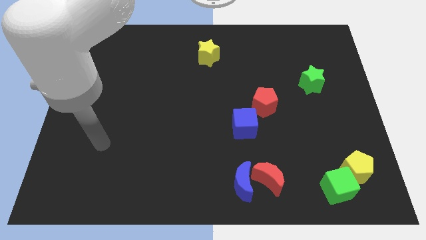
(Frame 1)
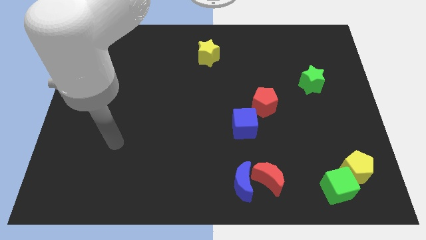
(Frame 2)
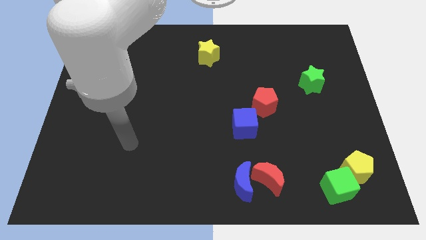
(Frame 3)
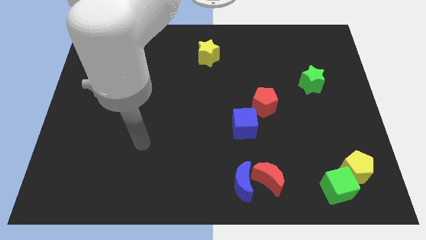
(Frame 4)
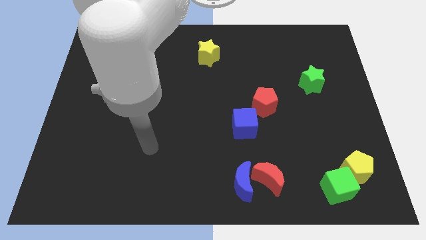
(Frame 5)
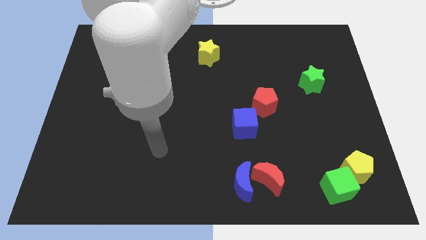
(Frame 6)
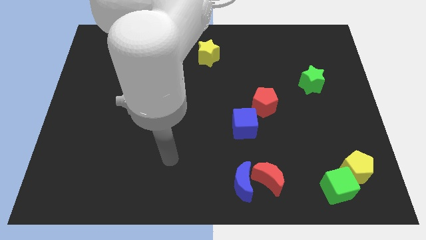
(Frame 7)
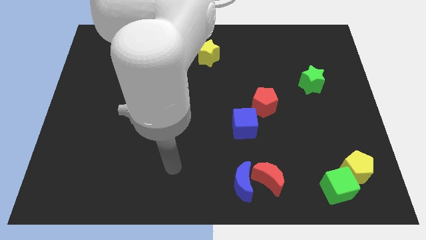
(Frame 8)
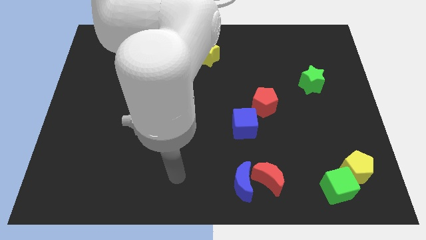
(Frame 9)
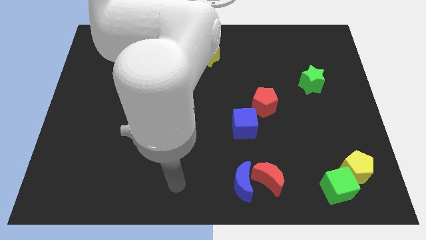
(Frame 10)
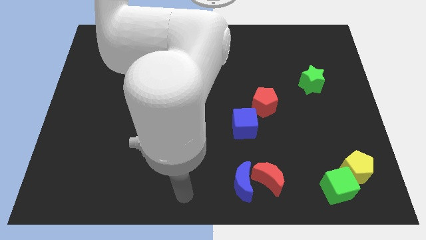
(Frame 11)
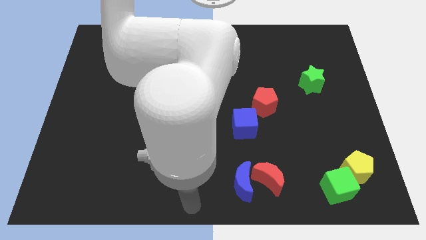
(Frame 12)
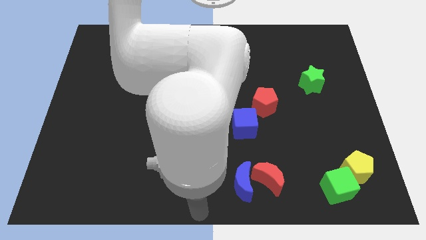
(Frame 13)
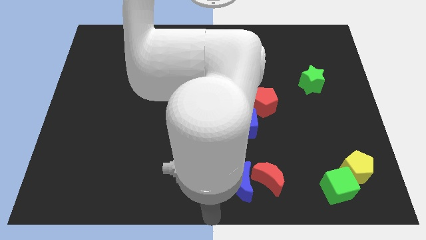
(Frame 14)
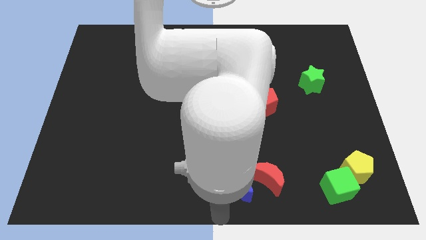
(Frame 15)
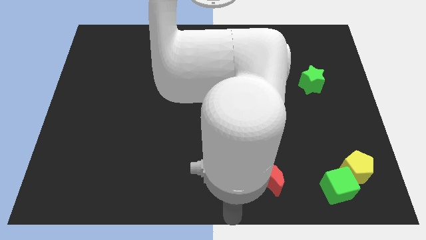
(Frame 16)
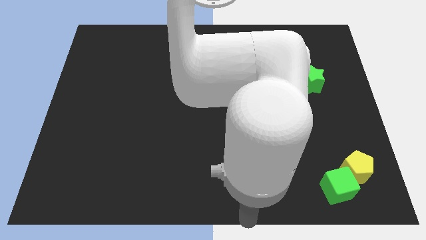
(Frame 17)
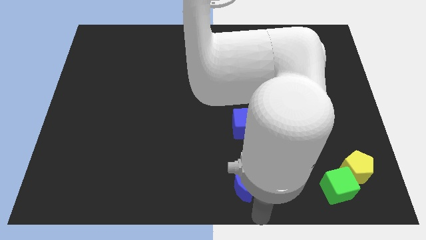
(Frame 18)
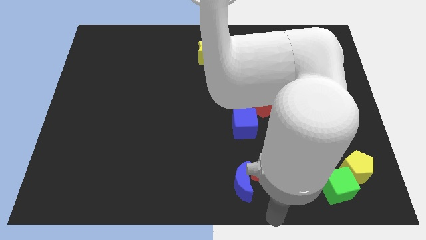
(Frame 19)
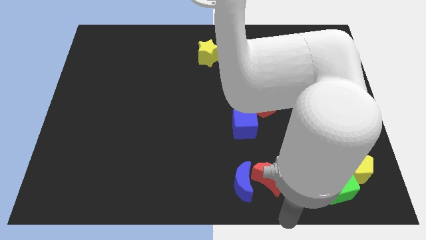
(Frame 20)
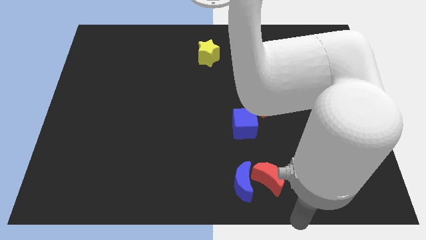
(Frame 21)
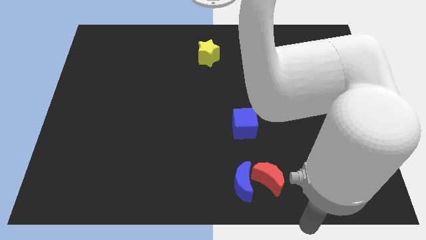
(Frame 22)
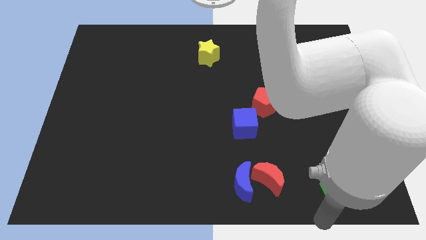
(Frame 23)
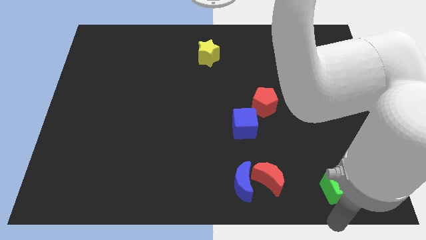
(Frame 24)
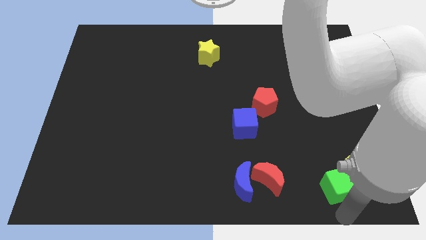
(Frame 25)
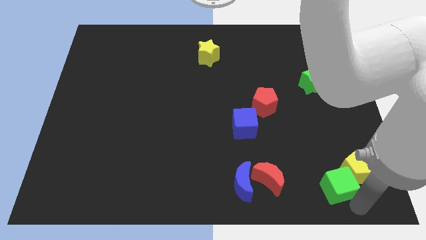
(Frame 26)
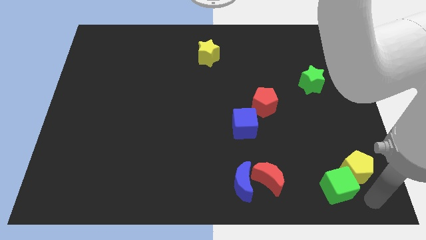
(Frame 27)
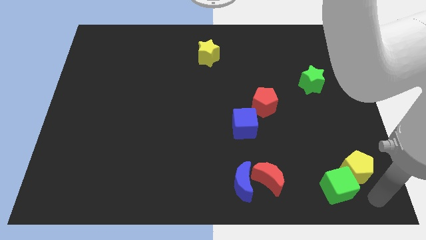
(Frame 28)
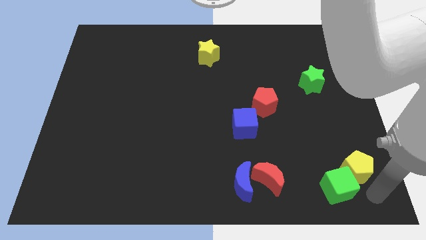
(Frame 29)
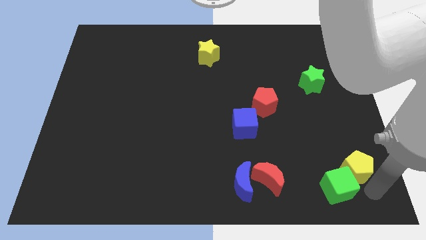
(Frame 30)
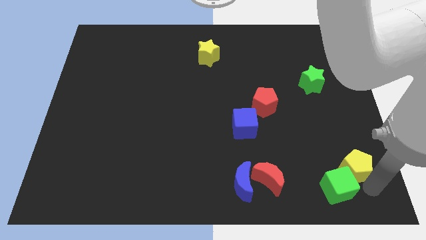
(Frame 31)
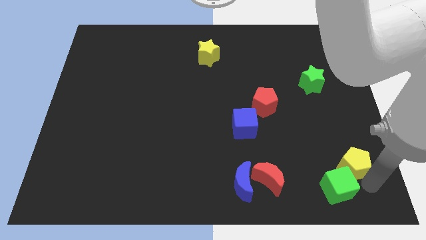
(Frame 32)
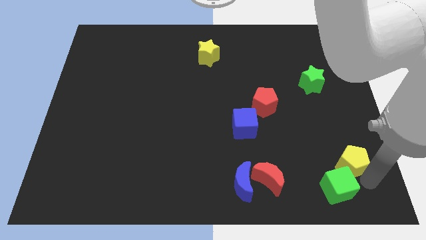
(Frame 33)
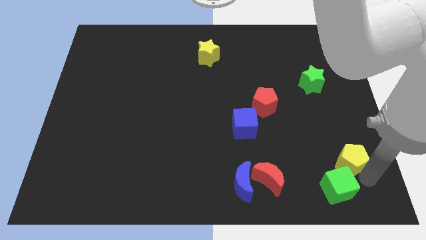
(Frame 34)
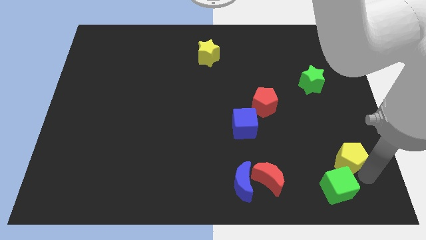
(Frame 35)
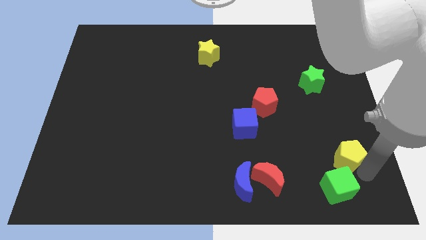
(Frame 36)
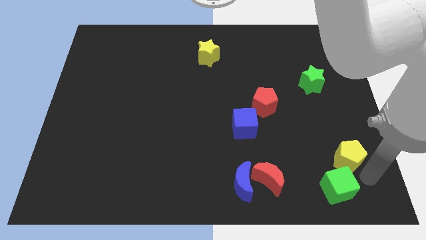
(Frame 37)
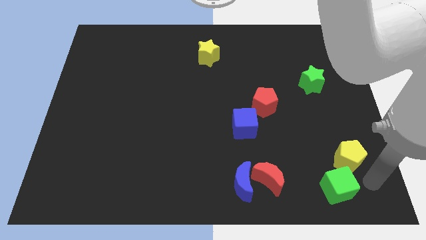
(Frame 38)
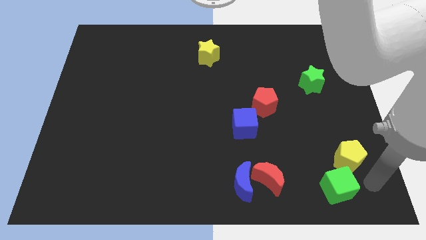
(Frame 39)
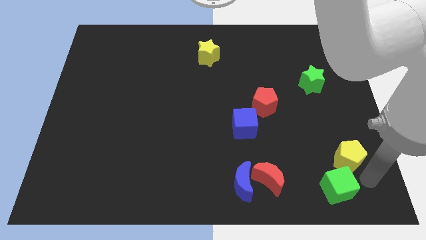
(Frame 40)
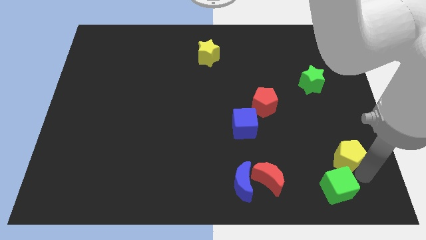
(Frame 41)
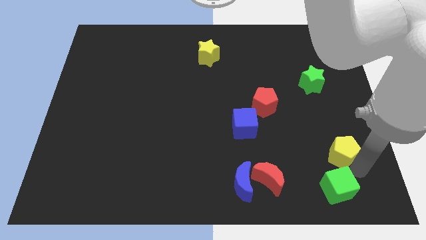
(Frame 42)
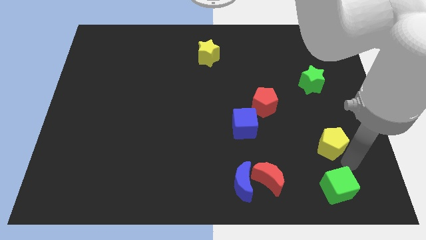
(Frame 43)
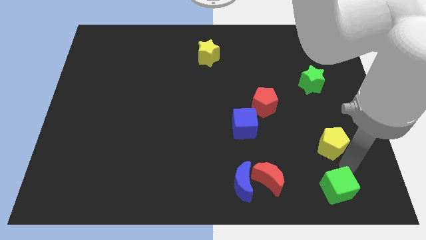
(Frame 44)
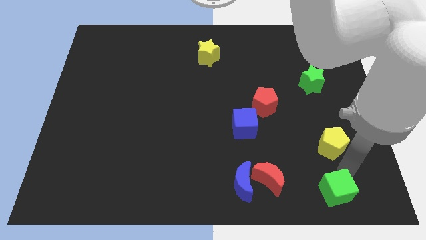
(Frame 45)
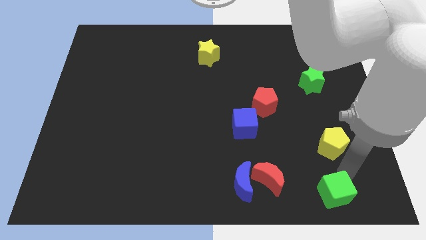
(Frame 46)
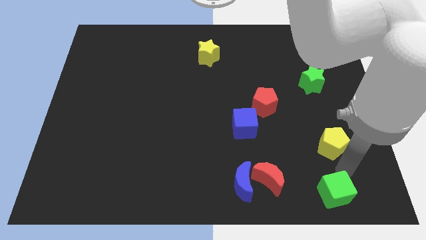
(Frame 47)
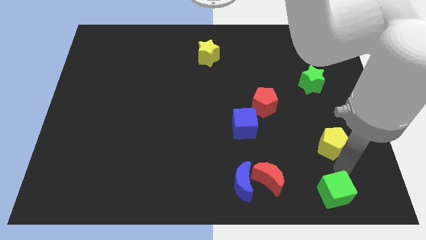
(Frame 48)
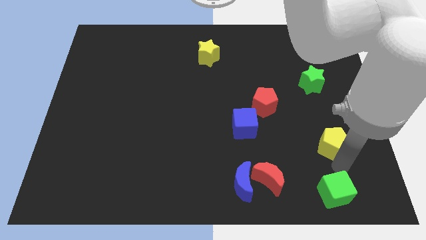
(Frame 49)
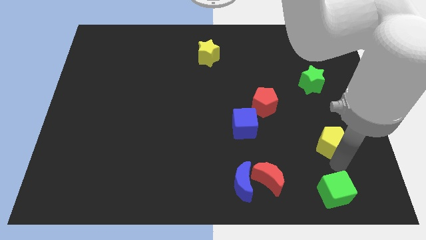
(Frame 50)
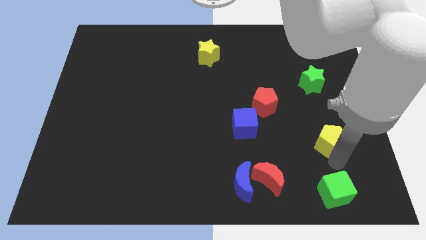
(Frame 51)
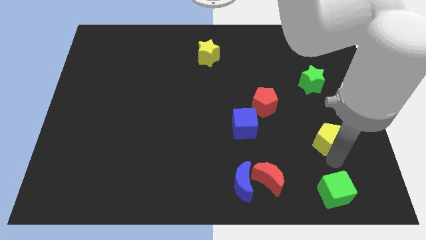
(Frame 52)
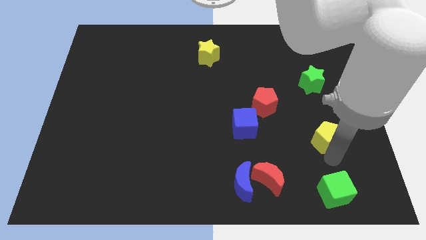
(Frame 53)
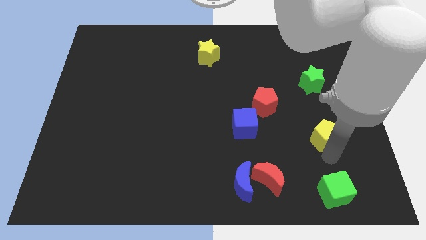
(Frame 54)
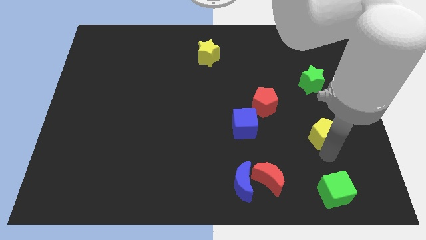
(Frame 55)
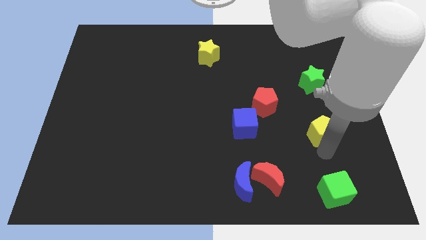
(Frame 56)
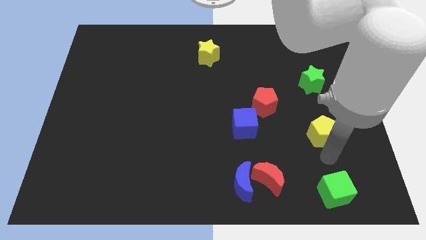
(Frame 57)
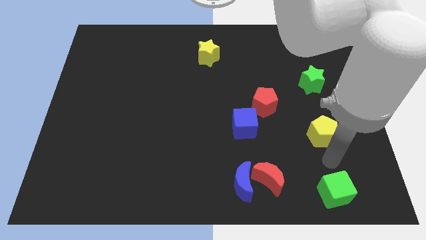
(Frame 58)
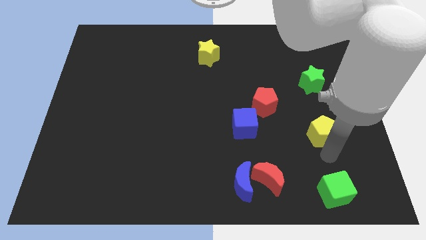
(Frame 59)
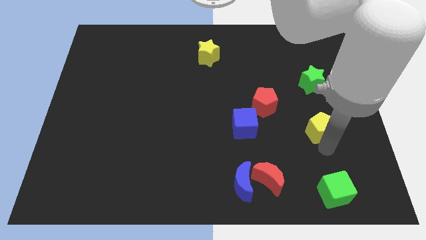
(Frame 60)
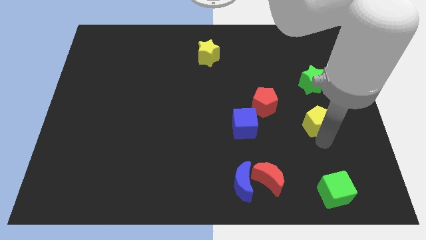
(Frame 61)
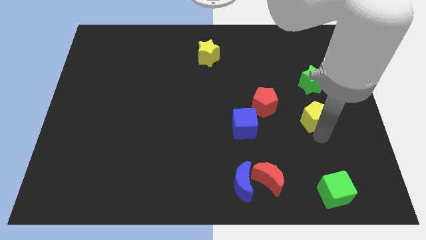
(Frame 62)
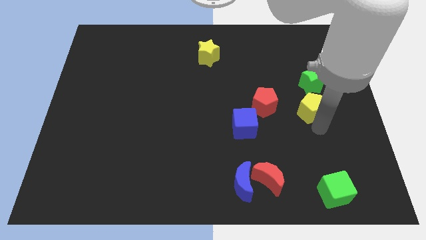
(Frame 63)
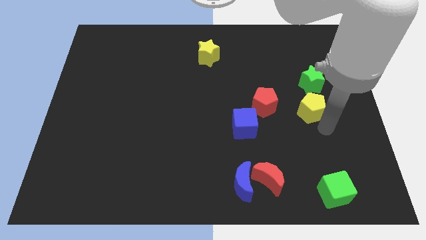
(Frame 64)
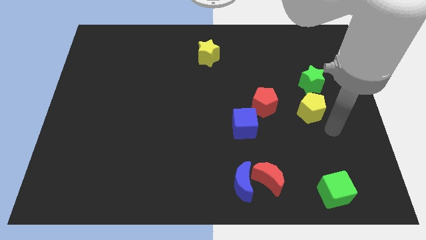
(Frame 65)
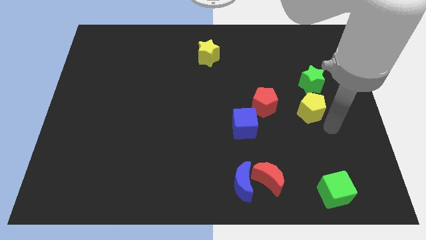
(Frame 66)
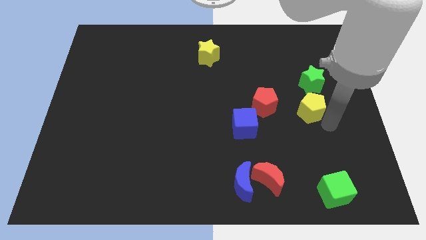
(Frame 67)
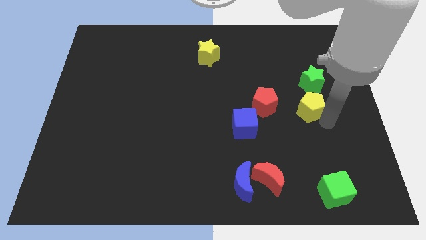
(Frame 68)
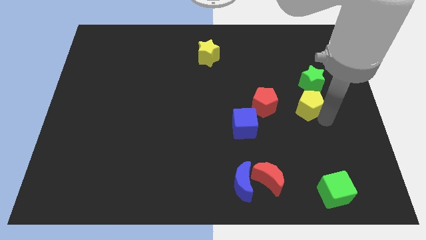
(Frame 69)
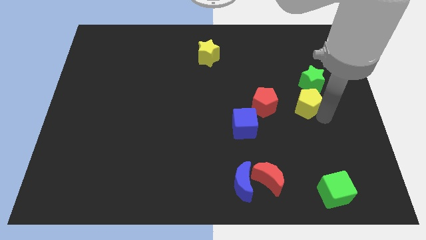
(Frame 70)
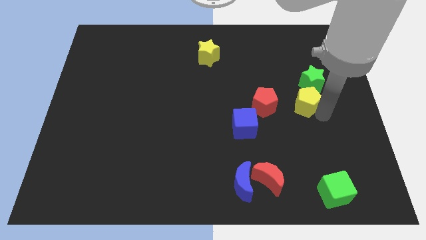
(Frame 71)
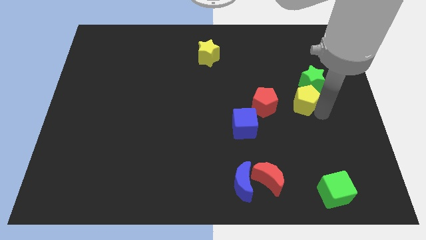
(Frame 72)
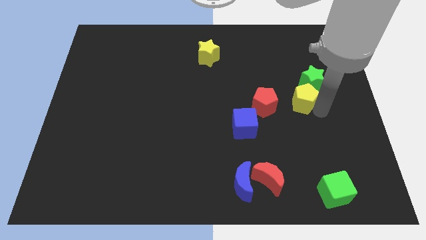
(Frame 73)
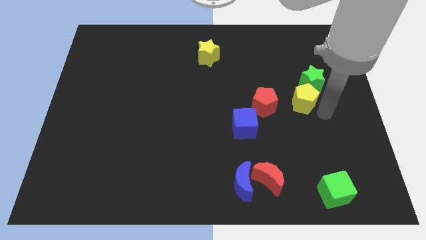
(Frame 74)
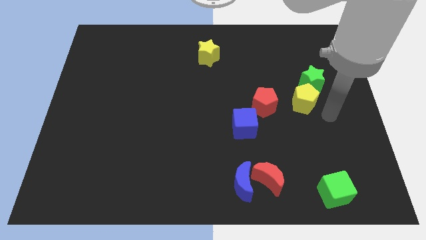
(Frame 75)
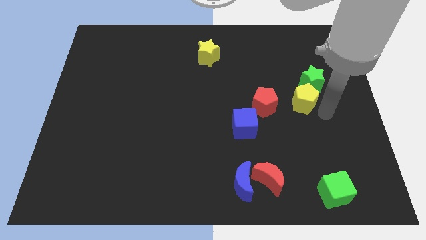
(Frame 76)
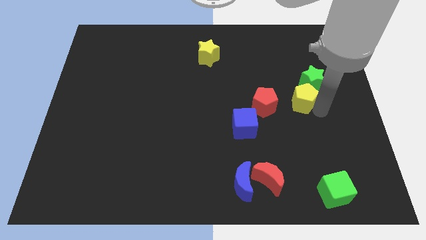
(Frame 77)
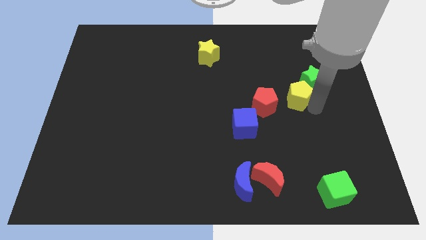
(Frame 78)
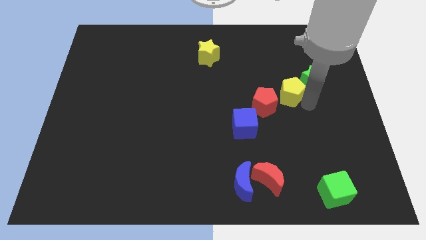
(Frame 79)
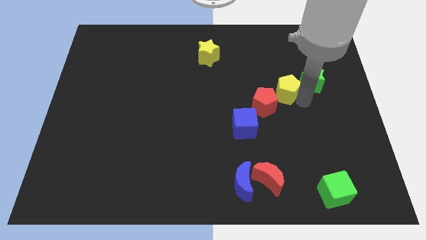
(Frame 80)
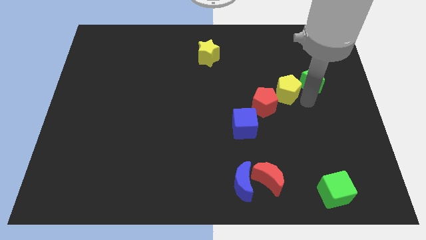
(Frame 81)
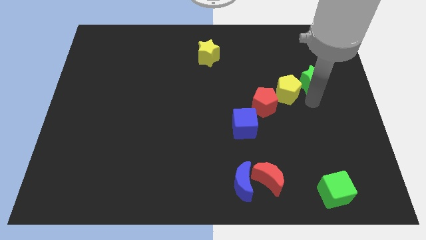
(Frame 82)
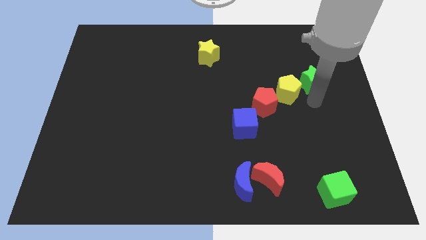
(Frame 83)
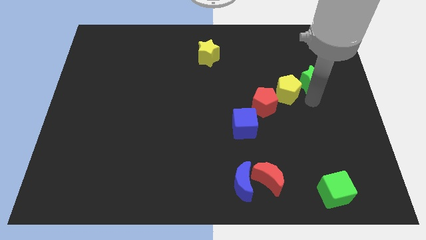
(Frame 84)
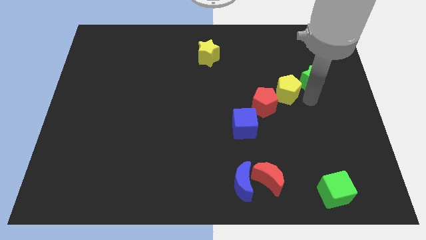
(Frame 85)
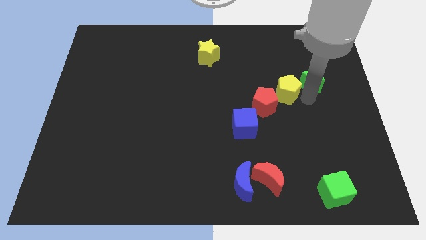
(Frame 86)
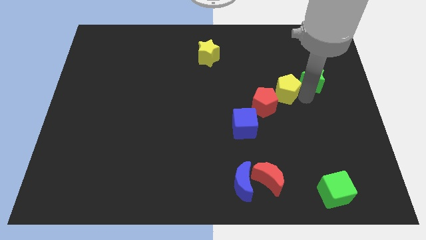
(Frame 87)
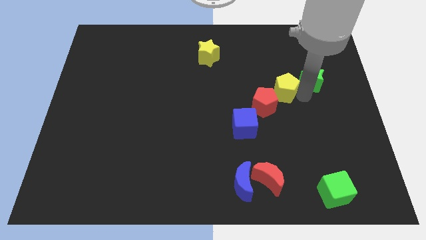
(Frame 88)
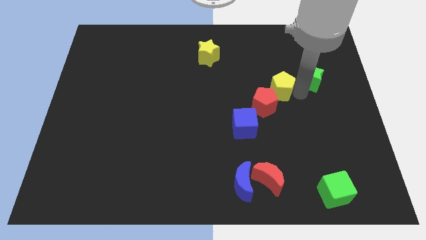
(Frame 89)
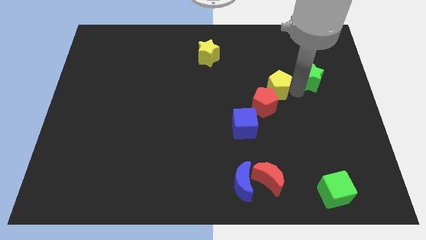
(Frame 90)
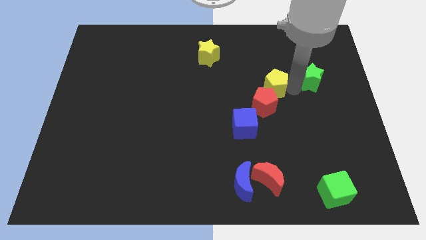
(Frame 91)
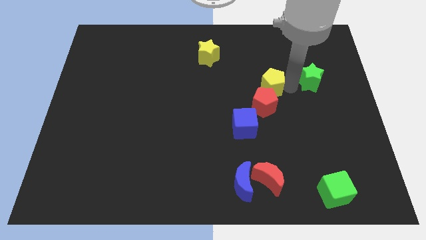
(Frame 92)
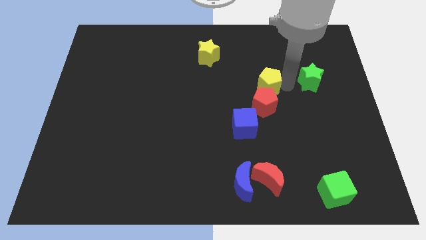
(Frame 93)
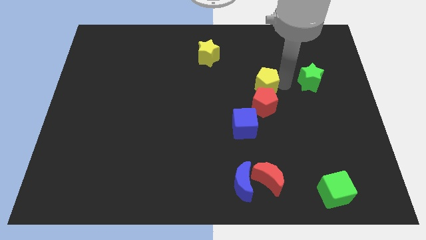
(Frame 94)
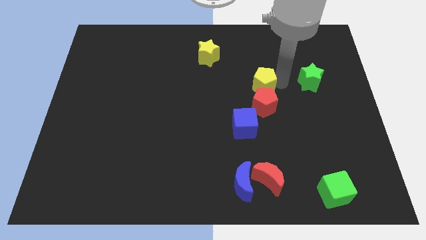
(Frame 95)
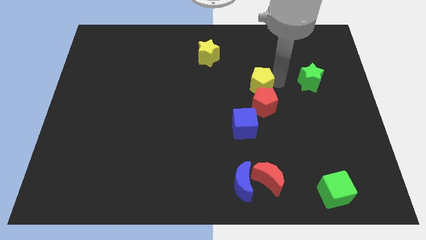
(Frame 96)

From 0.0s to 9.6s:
put the yellow pentagon to the top side of the blue cube
